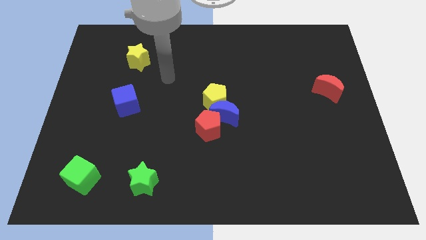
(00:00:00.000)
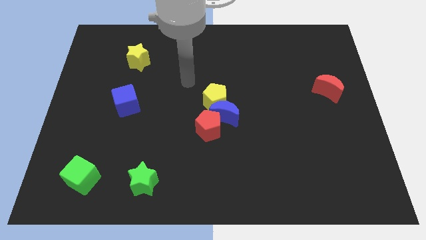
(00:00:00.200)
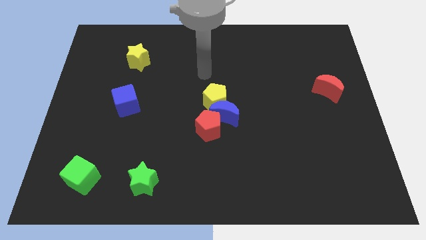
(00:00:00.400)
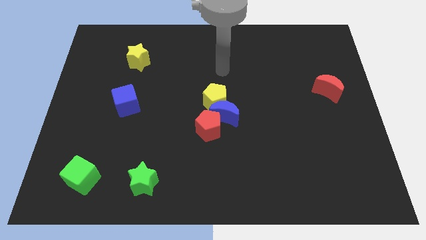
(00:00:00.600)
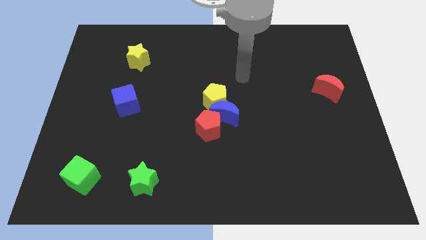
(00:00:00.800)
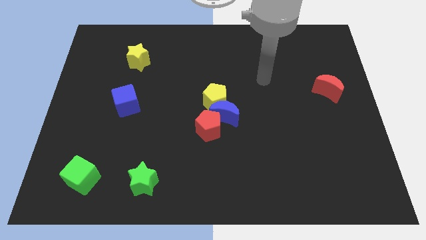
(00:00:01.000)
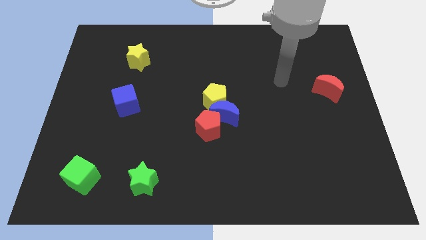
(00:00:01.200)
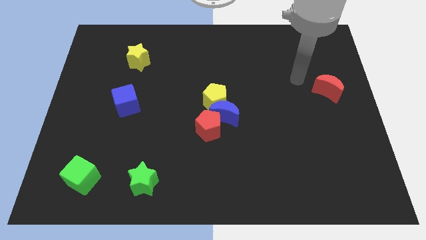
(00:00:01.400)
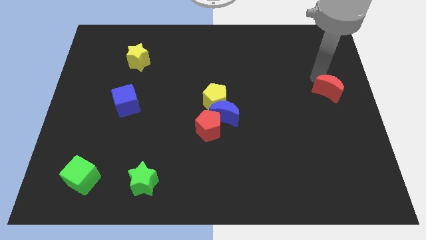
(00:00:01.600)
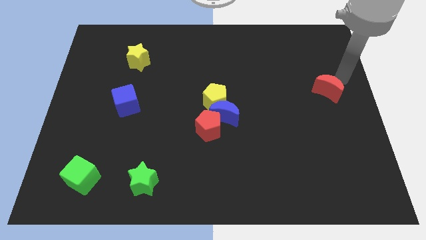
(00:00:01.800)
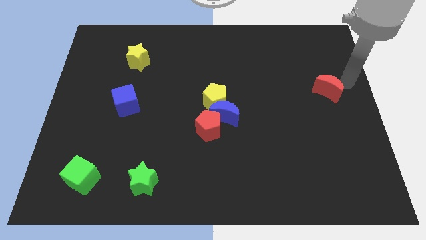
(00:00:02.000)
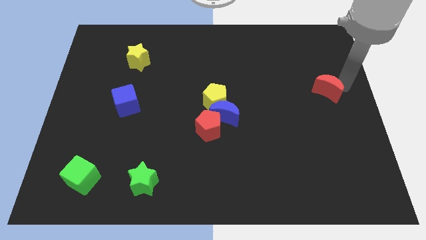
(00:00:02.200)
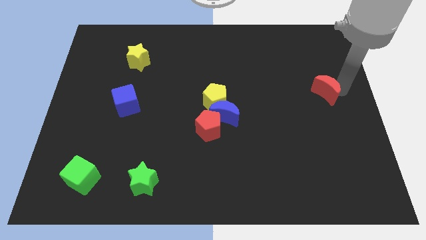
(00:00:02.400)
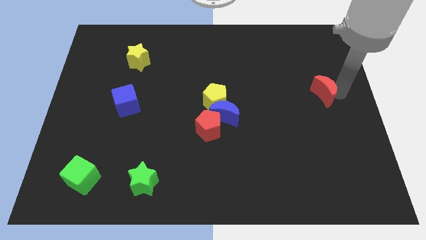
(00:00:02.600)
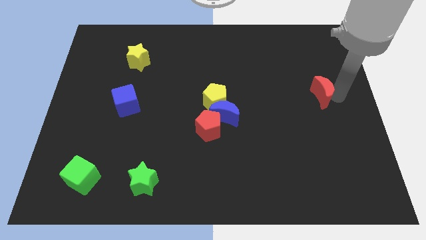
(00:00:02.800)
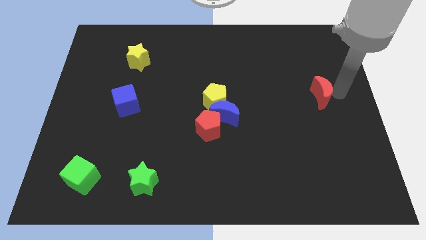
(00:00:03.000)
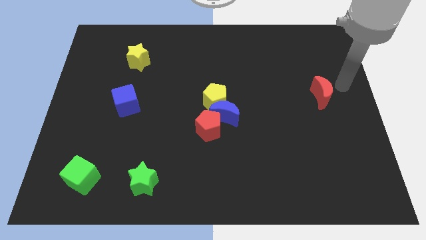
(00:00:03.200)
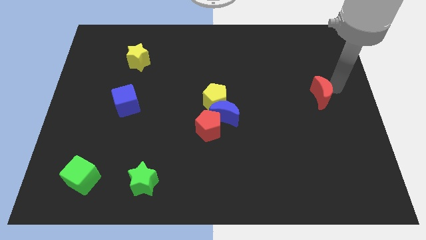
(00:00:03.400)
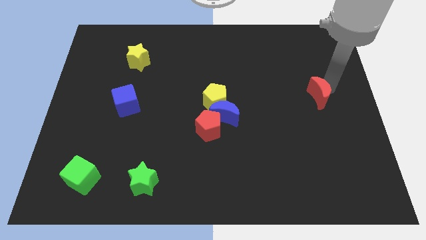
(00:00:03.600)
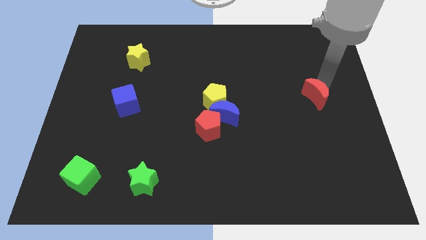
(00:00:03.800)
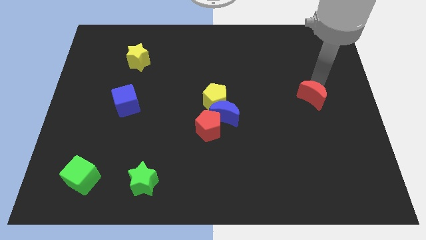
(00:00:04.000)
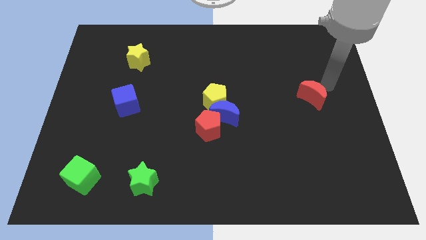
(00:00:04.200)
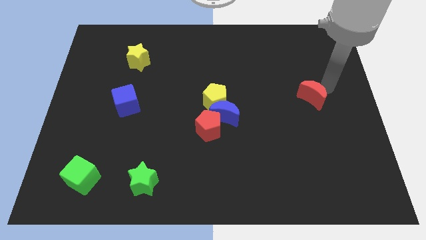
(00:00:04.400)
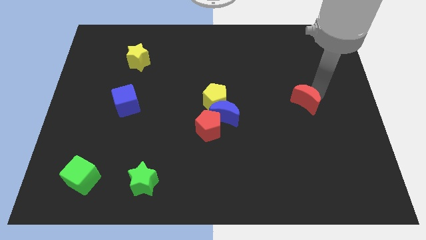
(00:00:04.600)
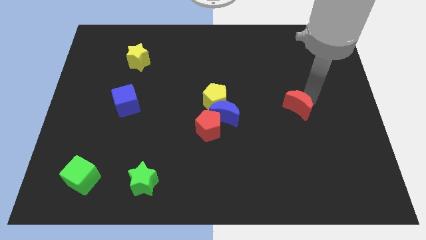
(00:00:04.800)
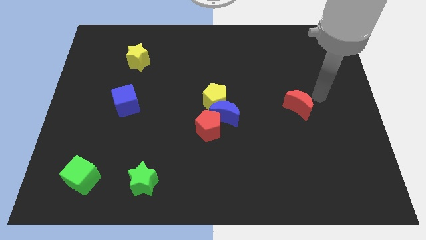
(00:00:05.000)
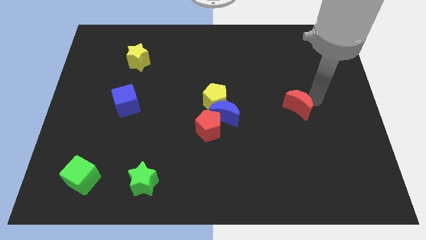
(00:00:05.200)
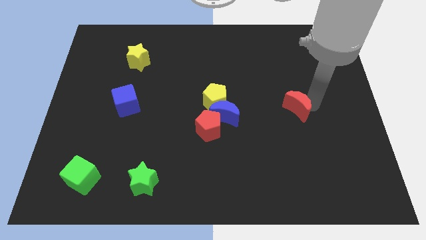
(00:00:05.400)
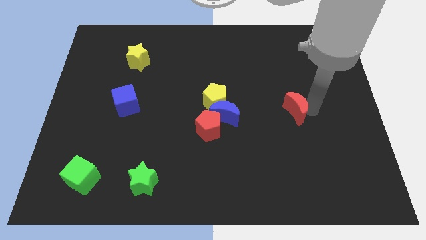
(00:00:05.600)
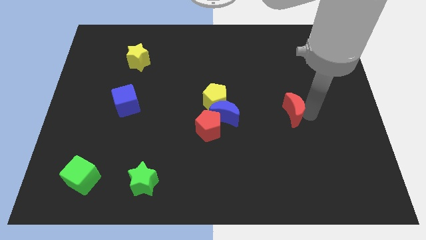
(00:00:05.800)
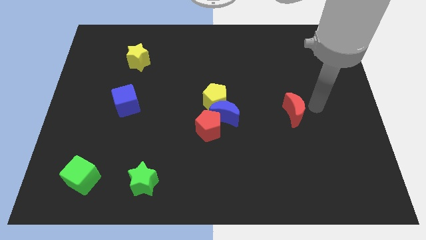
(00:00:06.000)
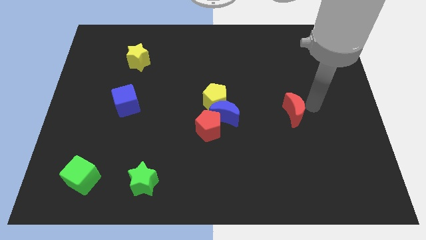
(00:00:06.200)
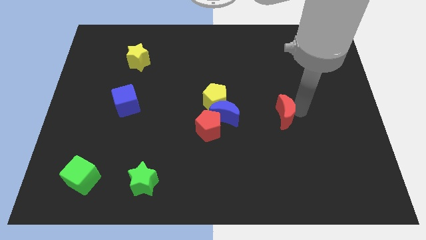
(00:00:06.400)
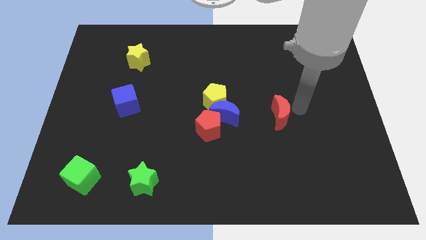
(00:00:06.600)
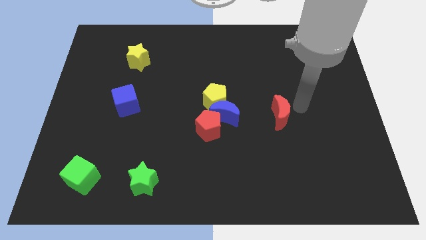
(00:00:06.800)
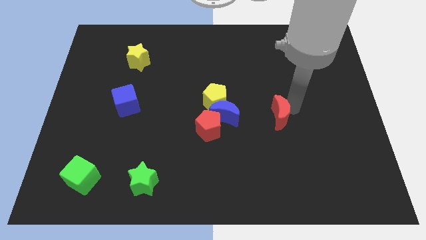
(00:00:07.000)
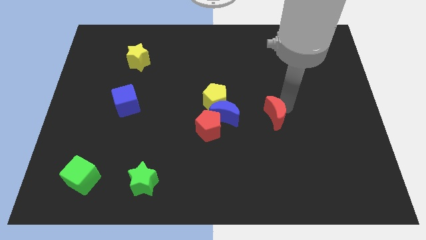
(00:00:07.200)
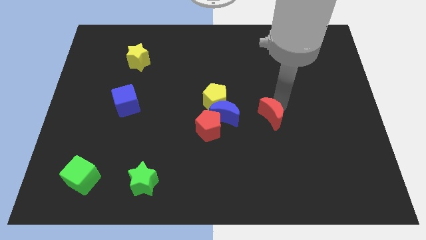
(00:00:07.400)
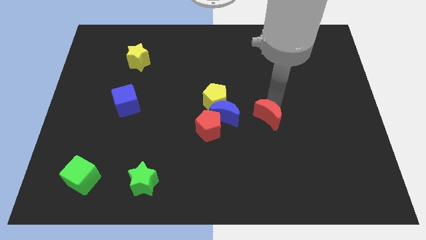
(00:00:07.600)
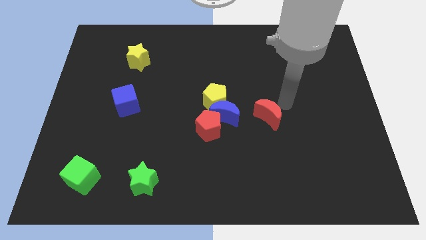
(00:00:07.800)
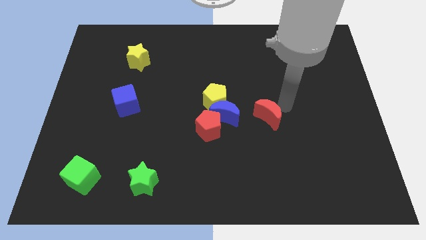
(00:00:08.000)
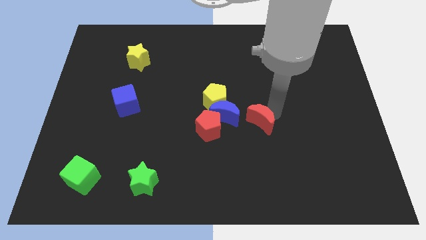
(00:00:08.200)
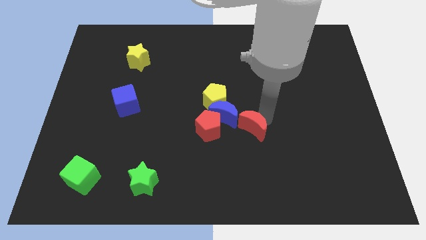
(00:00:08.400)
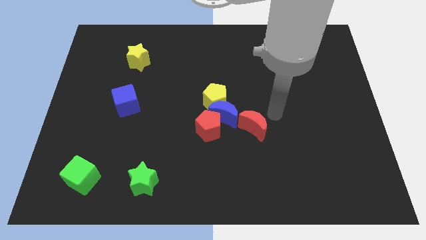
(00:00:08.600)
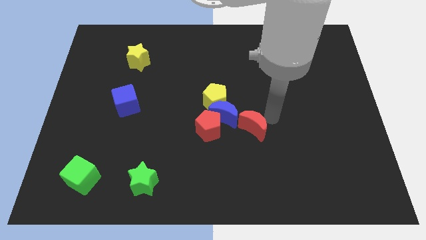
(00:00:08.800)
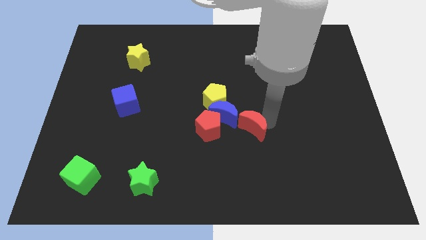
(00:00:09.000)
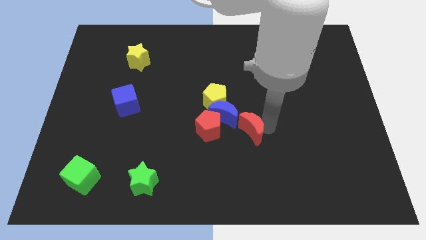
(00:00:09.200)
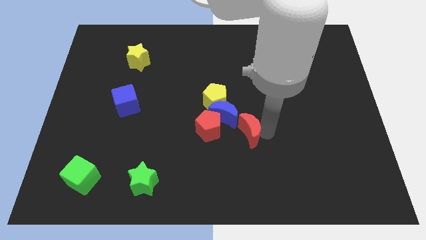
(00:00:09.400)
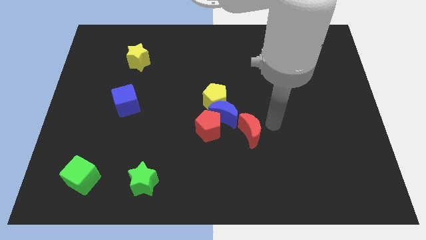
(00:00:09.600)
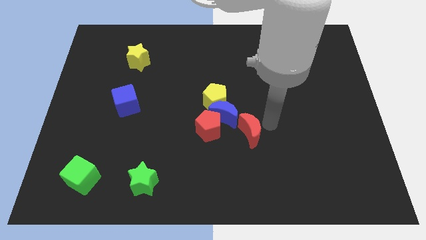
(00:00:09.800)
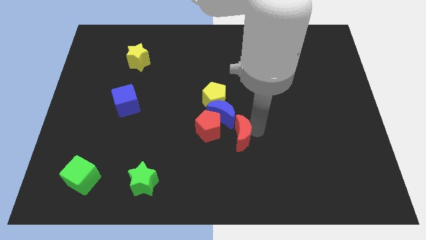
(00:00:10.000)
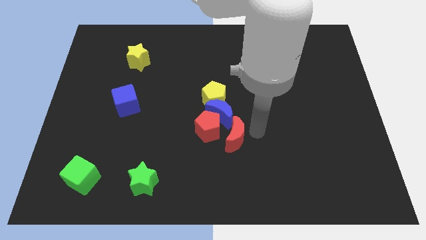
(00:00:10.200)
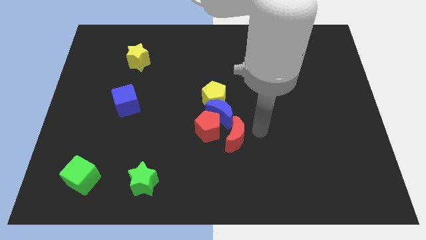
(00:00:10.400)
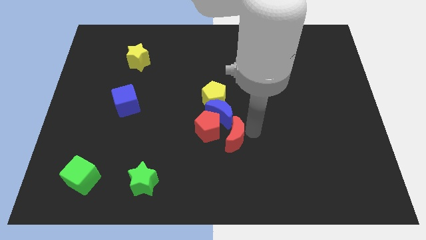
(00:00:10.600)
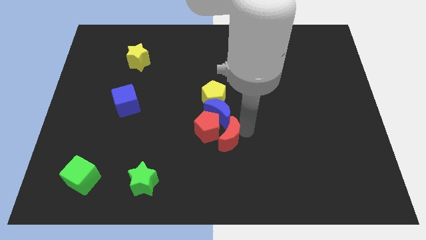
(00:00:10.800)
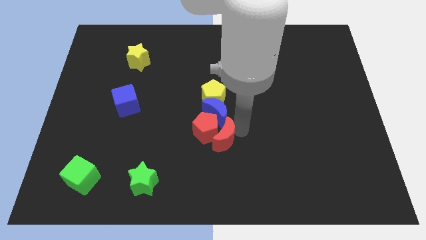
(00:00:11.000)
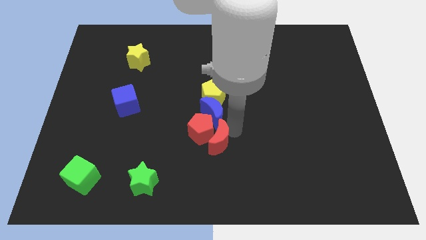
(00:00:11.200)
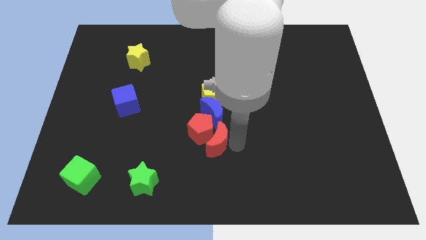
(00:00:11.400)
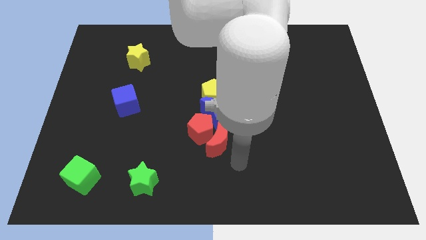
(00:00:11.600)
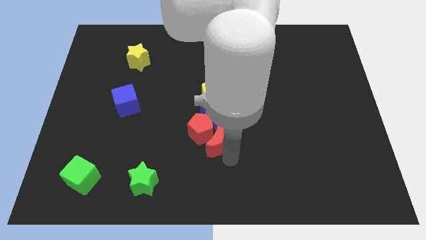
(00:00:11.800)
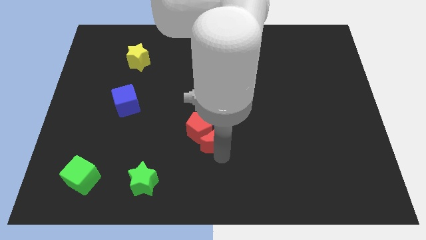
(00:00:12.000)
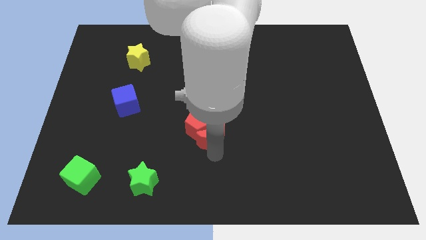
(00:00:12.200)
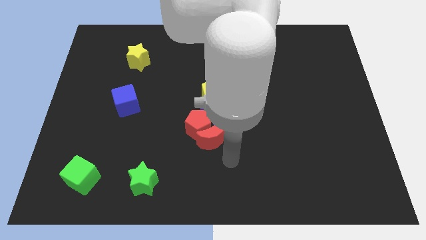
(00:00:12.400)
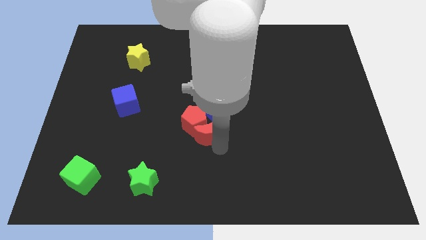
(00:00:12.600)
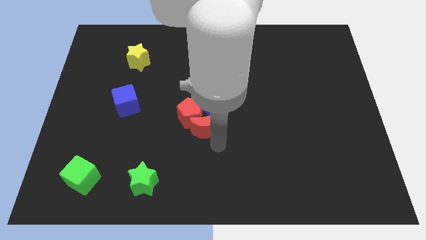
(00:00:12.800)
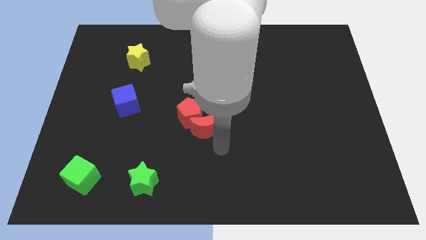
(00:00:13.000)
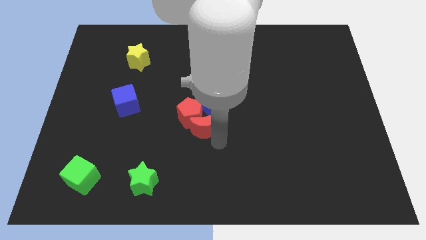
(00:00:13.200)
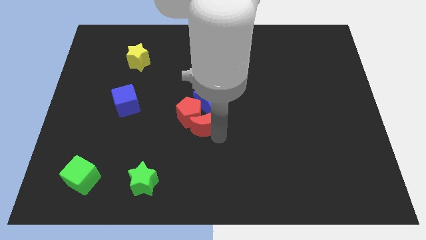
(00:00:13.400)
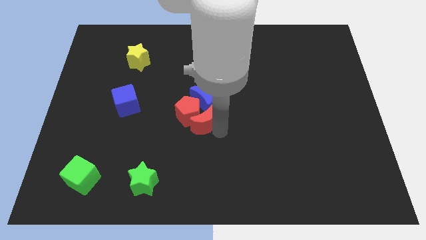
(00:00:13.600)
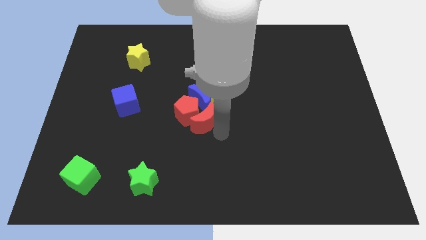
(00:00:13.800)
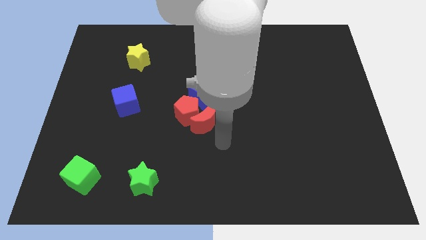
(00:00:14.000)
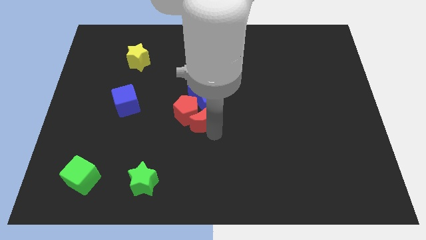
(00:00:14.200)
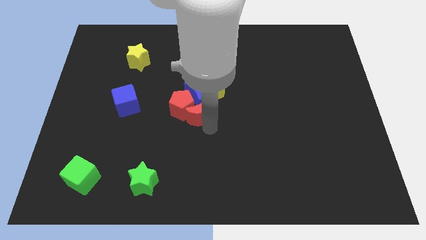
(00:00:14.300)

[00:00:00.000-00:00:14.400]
put the red moon to the bottom left side of the yellow pentagon

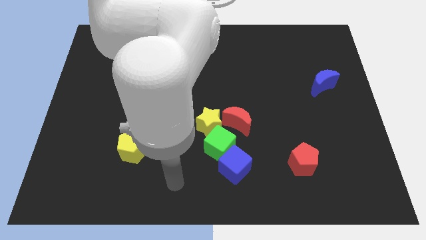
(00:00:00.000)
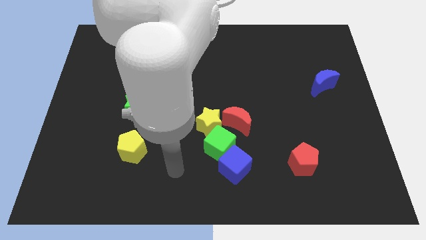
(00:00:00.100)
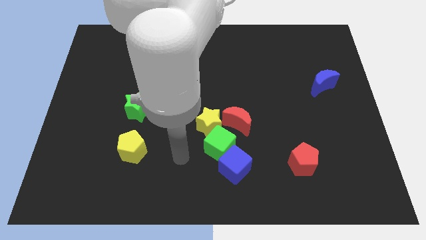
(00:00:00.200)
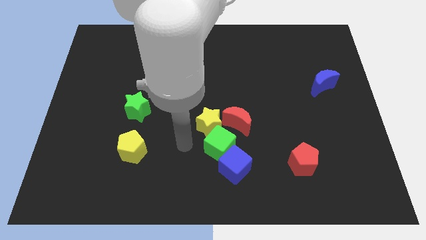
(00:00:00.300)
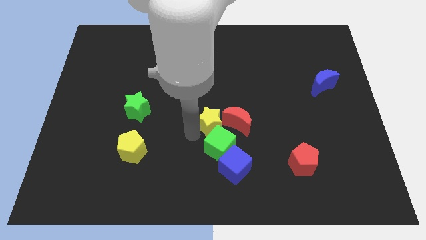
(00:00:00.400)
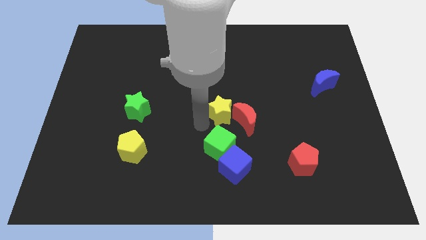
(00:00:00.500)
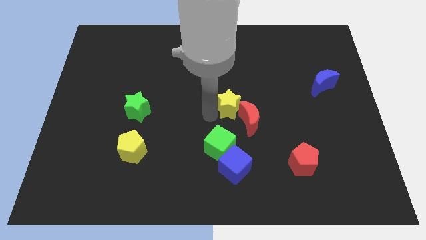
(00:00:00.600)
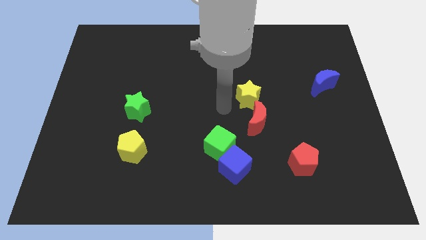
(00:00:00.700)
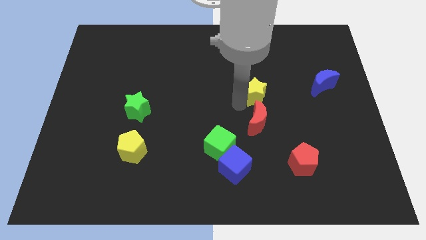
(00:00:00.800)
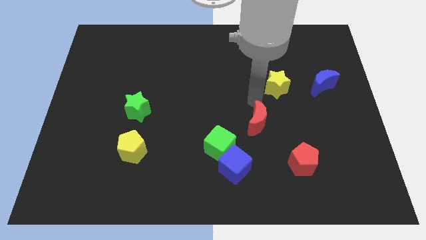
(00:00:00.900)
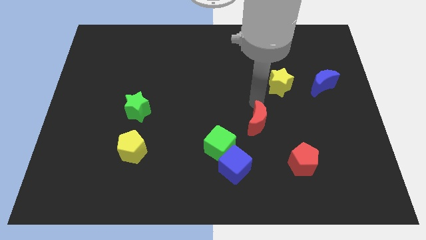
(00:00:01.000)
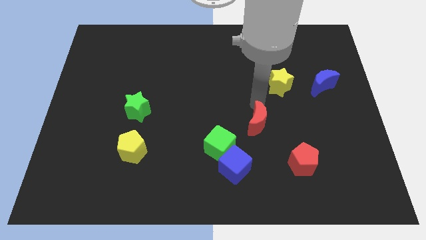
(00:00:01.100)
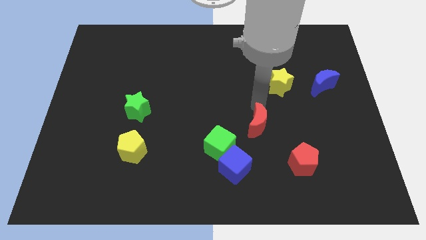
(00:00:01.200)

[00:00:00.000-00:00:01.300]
put the red moon to the top left side of the red pentagon
